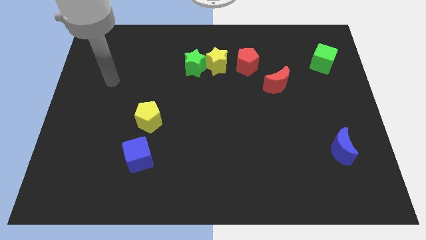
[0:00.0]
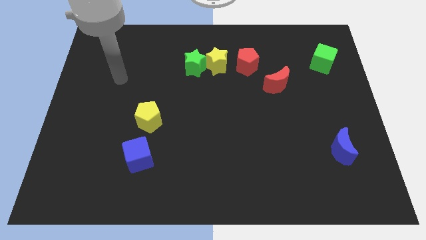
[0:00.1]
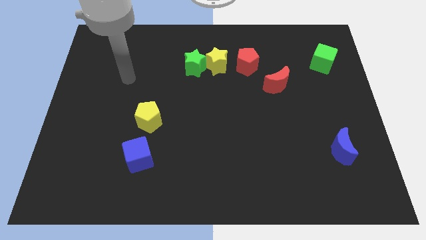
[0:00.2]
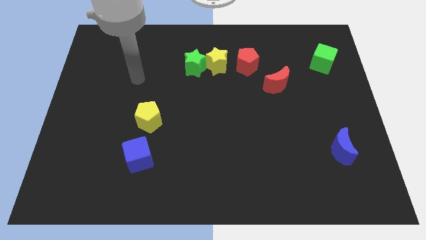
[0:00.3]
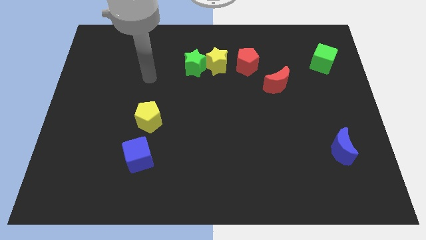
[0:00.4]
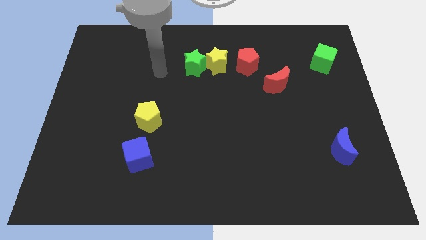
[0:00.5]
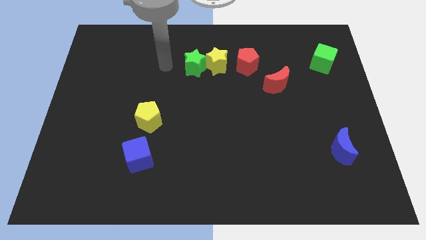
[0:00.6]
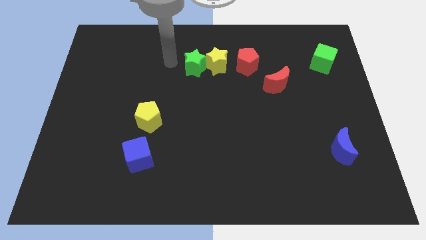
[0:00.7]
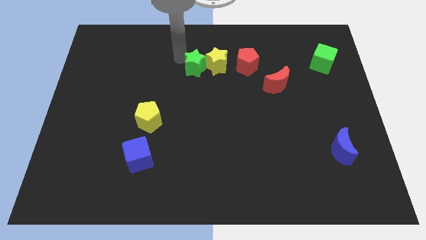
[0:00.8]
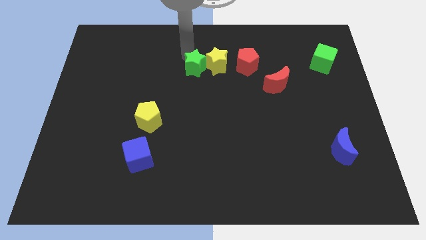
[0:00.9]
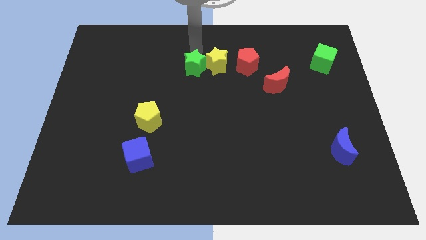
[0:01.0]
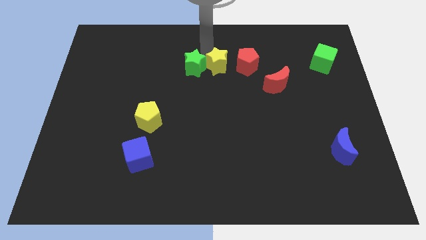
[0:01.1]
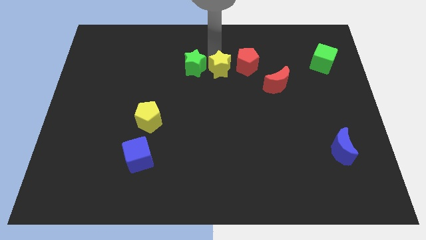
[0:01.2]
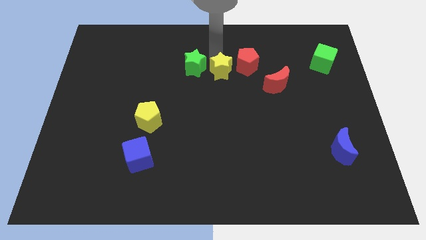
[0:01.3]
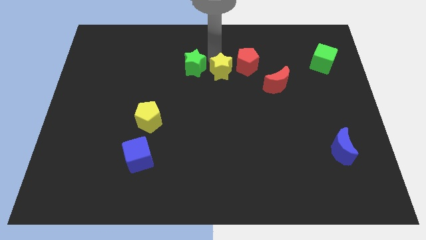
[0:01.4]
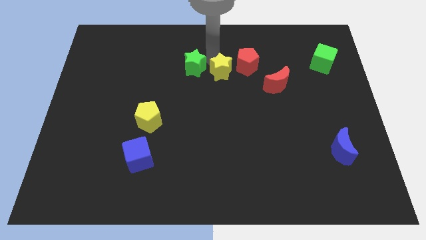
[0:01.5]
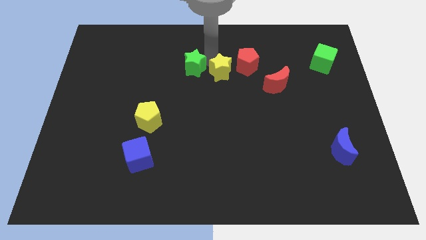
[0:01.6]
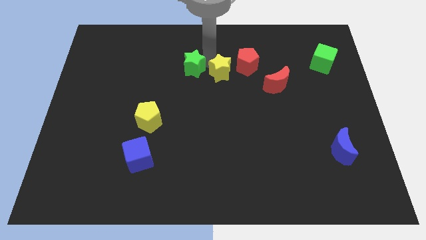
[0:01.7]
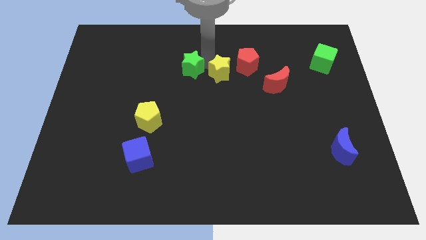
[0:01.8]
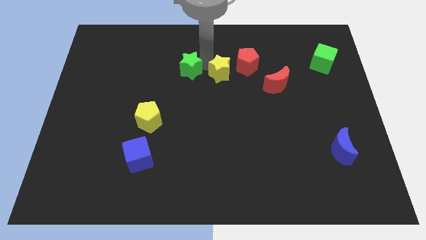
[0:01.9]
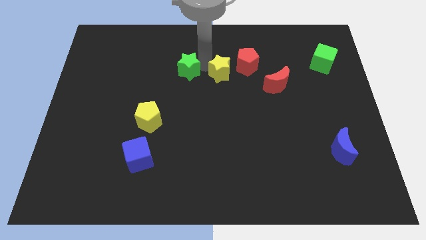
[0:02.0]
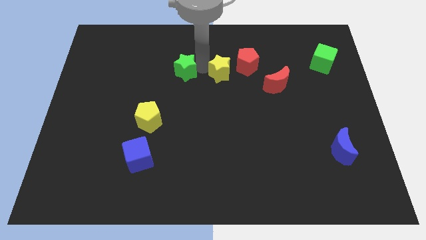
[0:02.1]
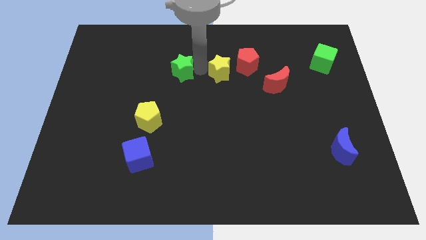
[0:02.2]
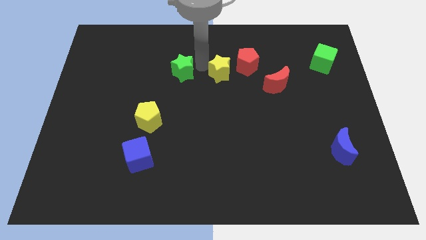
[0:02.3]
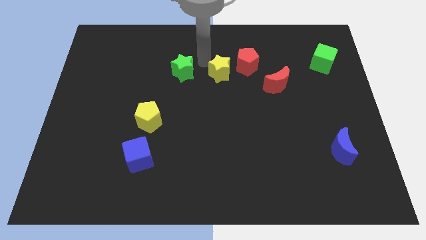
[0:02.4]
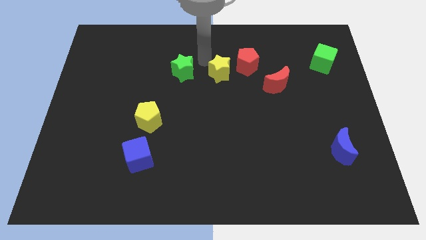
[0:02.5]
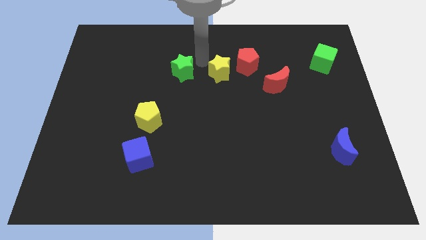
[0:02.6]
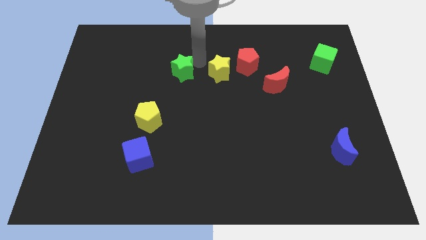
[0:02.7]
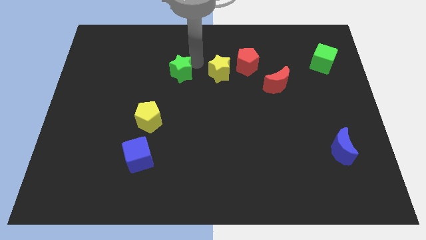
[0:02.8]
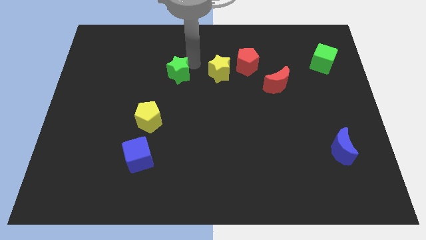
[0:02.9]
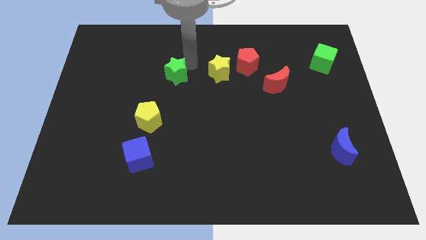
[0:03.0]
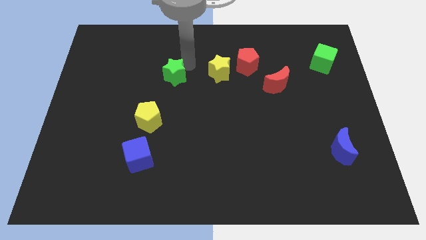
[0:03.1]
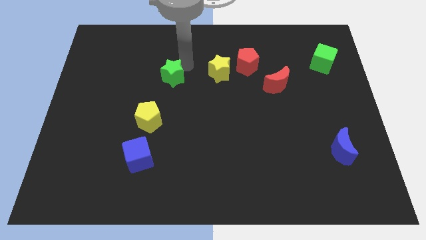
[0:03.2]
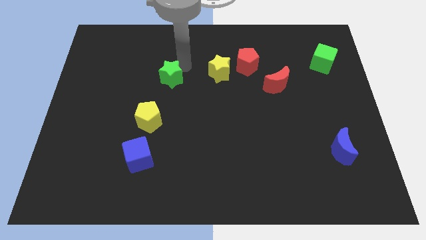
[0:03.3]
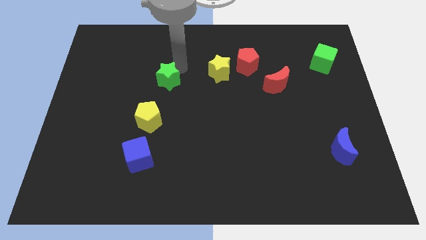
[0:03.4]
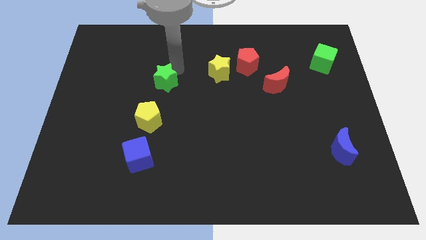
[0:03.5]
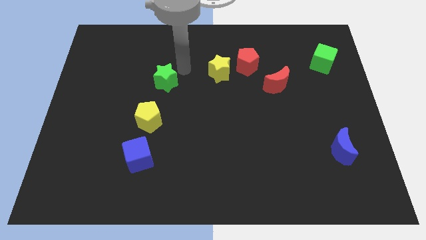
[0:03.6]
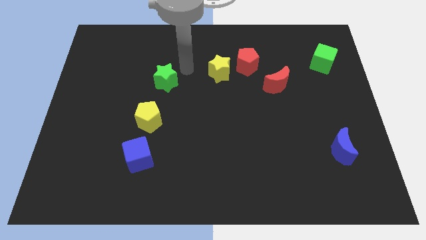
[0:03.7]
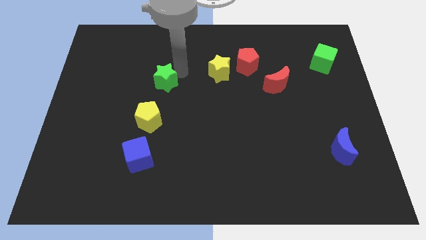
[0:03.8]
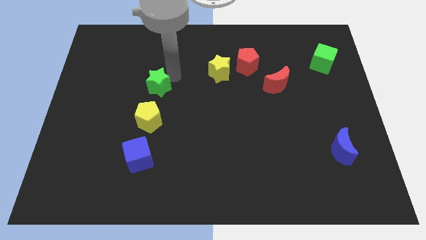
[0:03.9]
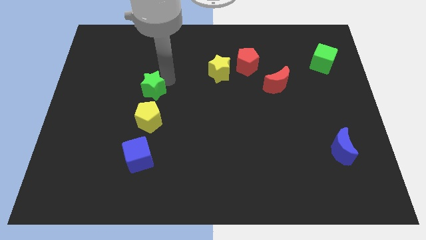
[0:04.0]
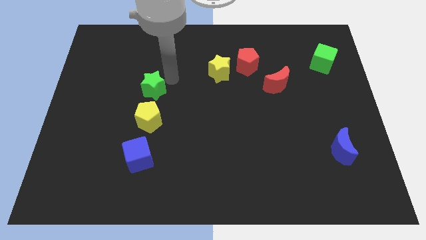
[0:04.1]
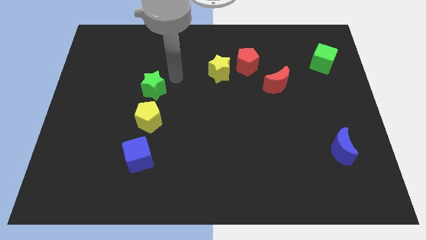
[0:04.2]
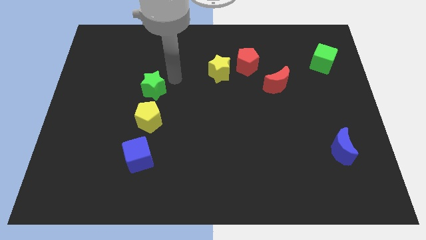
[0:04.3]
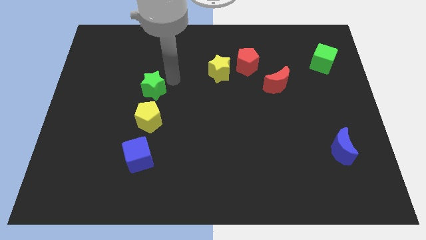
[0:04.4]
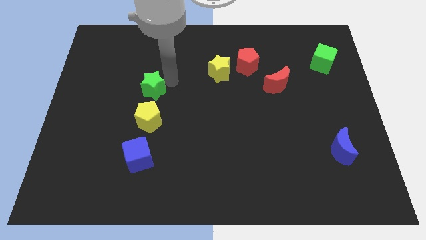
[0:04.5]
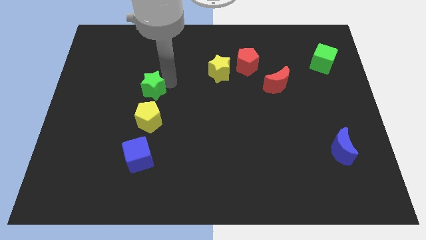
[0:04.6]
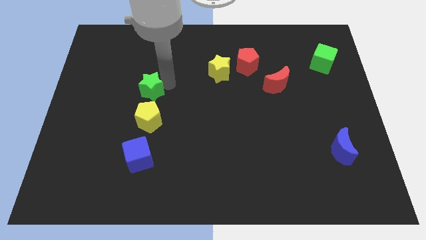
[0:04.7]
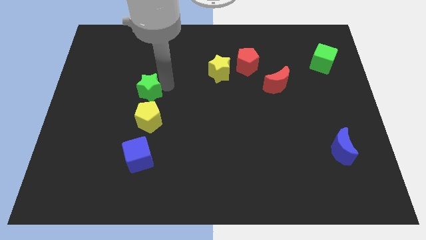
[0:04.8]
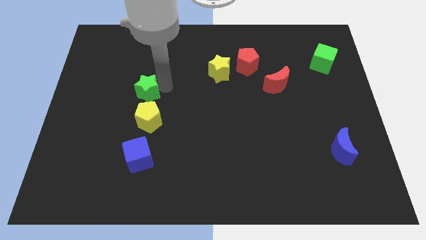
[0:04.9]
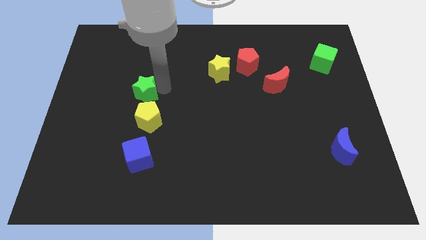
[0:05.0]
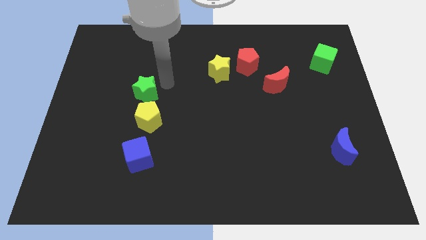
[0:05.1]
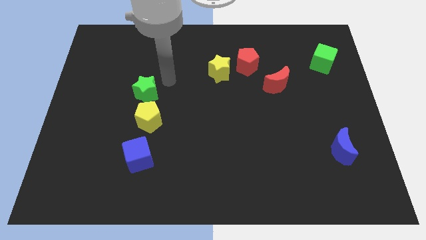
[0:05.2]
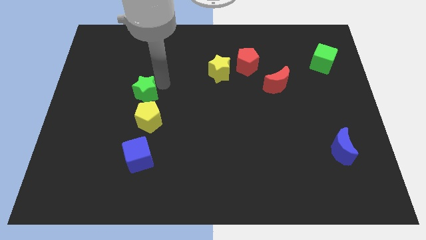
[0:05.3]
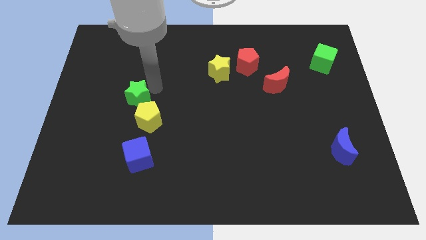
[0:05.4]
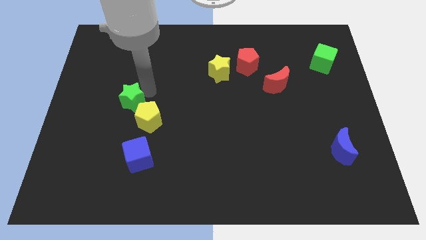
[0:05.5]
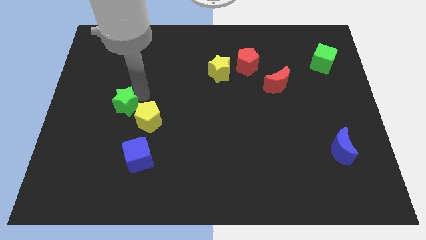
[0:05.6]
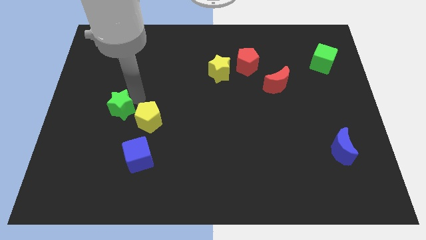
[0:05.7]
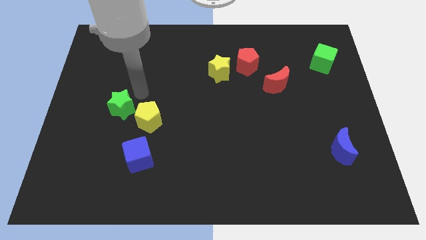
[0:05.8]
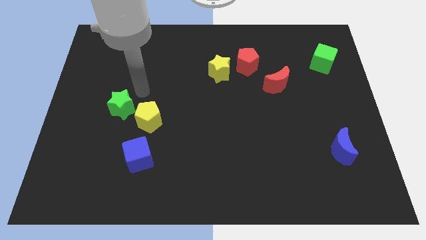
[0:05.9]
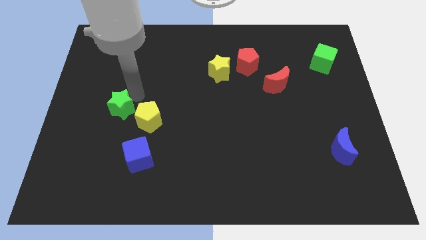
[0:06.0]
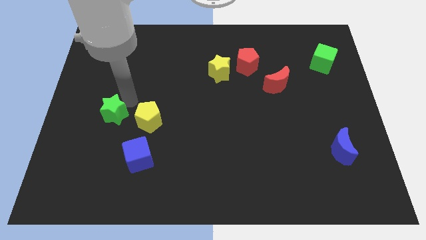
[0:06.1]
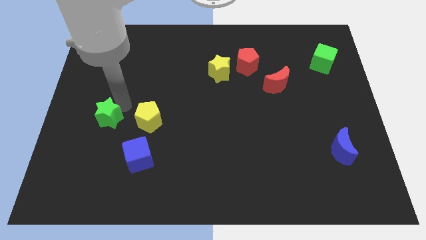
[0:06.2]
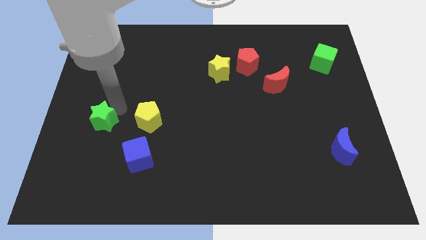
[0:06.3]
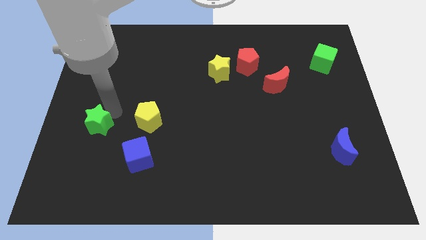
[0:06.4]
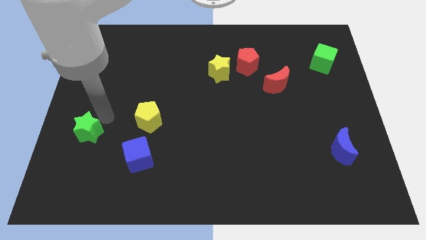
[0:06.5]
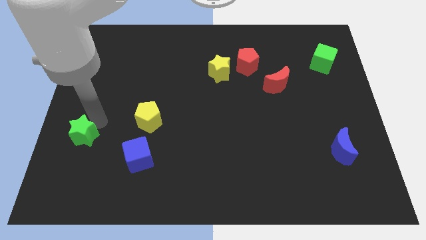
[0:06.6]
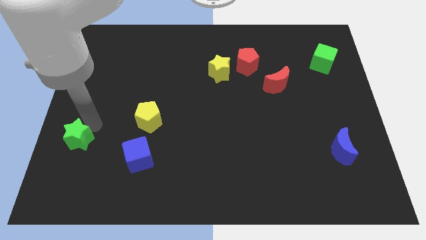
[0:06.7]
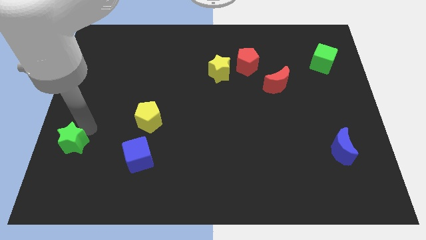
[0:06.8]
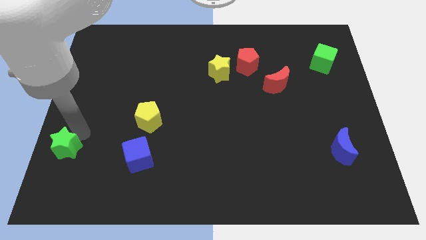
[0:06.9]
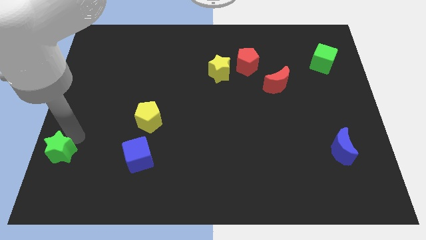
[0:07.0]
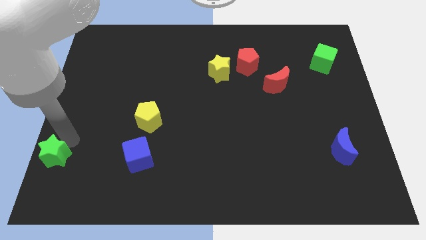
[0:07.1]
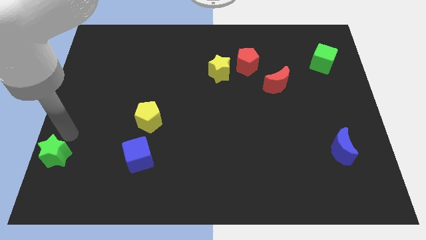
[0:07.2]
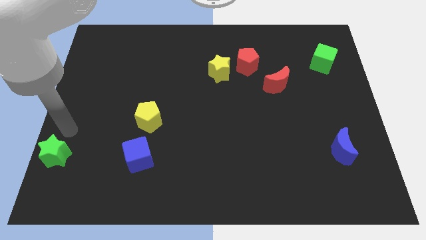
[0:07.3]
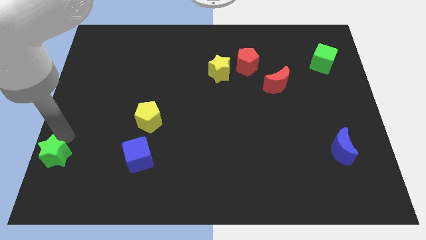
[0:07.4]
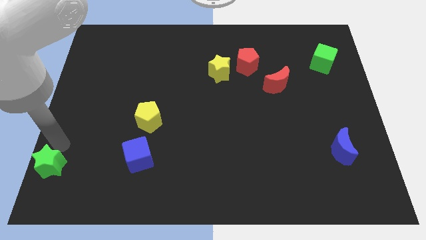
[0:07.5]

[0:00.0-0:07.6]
slide the green star to the bottom left of the board
